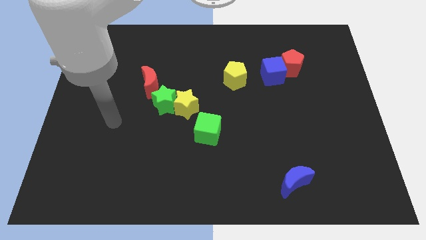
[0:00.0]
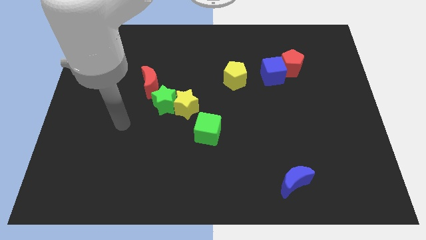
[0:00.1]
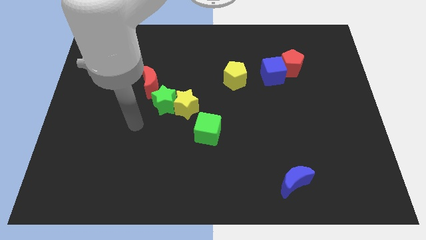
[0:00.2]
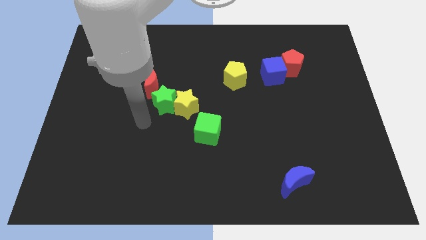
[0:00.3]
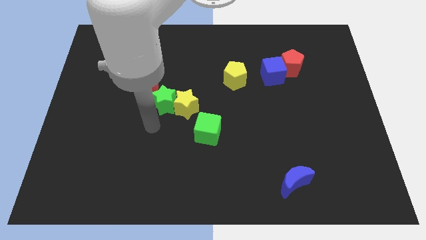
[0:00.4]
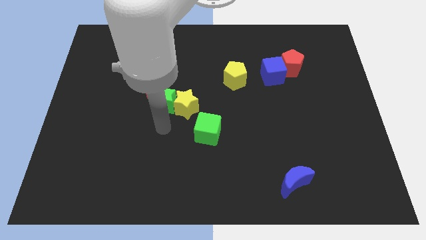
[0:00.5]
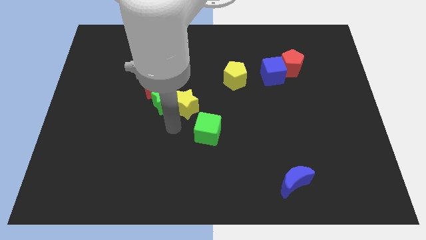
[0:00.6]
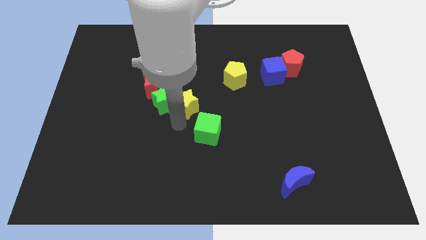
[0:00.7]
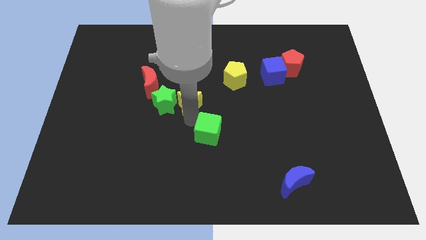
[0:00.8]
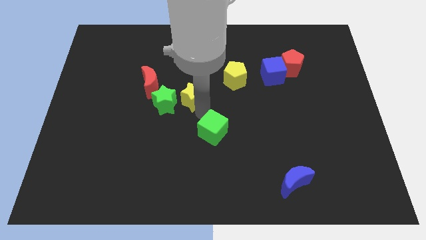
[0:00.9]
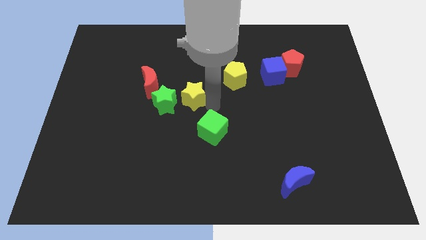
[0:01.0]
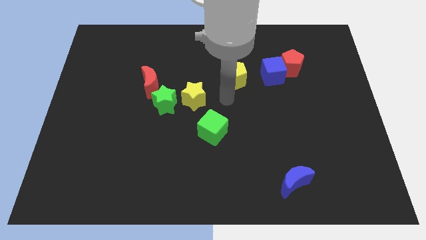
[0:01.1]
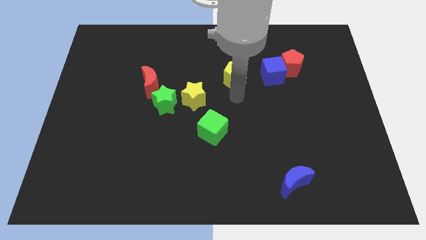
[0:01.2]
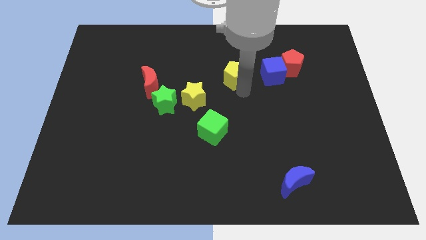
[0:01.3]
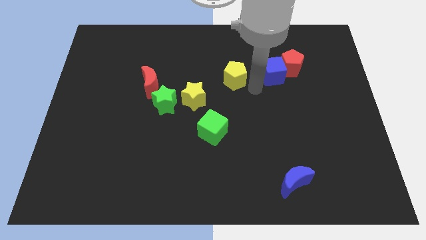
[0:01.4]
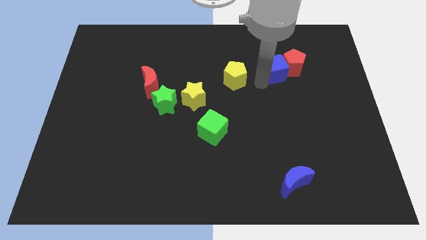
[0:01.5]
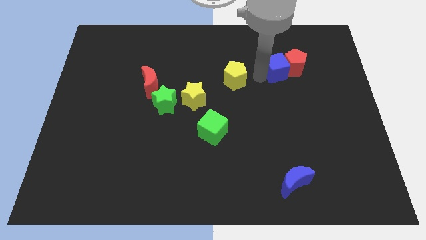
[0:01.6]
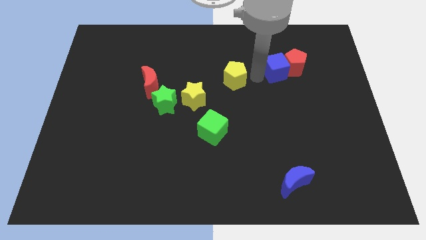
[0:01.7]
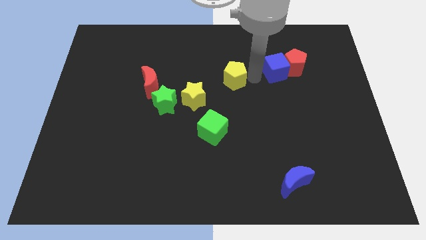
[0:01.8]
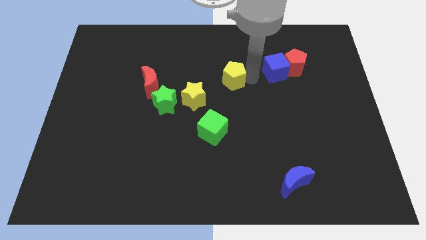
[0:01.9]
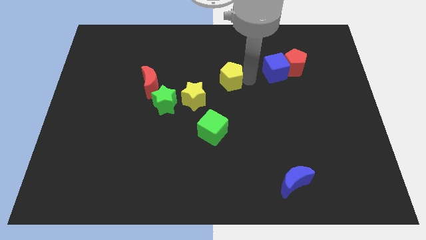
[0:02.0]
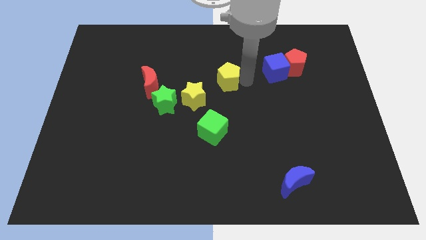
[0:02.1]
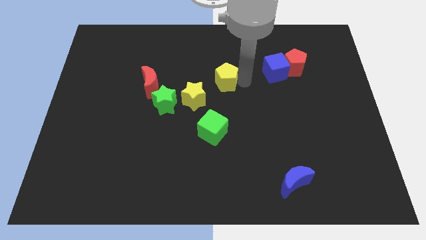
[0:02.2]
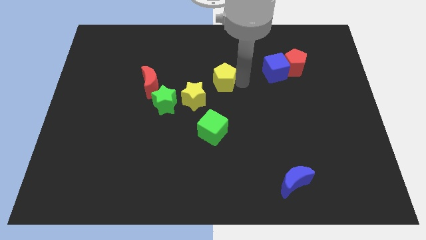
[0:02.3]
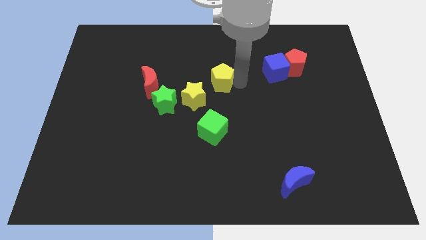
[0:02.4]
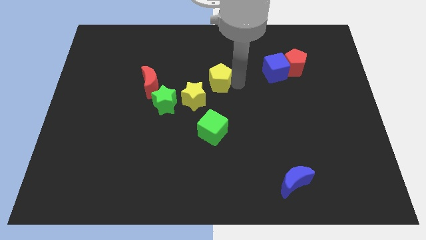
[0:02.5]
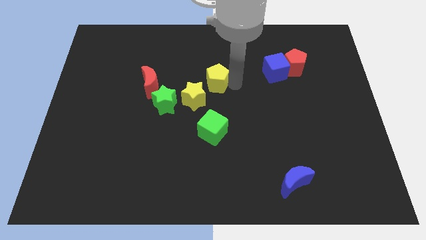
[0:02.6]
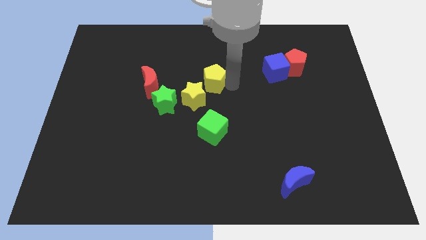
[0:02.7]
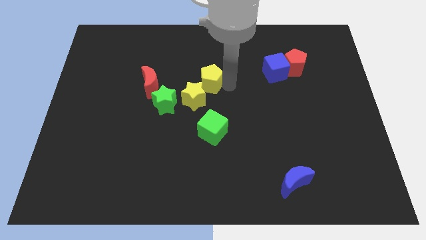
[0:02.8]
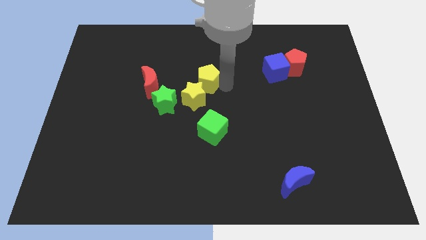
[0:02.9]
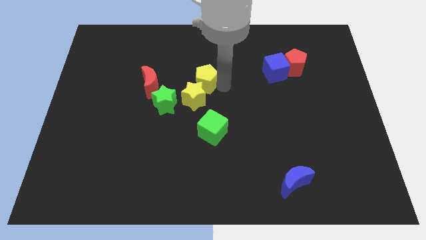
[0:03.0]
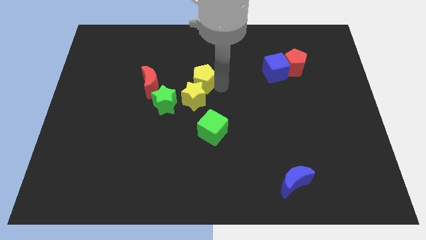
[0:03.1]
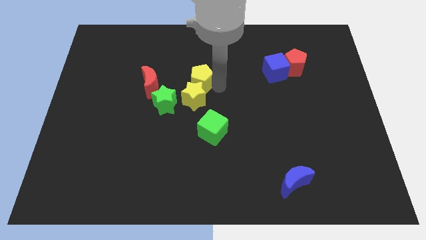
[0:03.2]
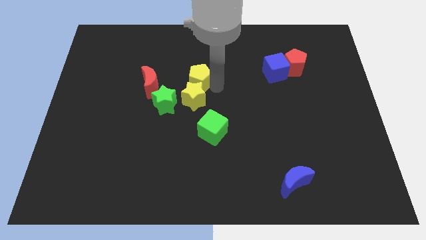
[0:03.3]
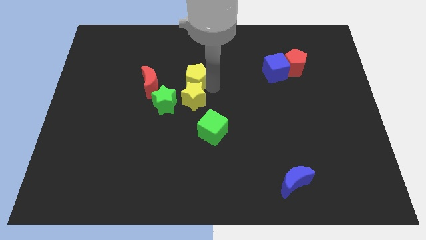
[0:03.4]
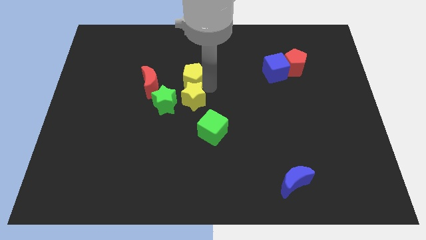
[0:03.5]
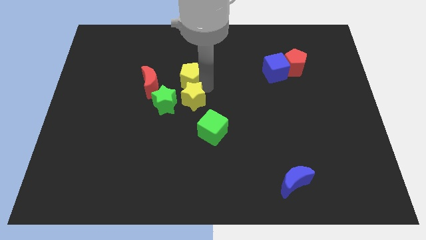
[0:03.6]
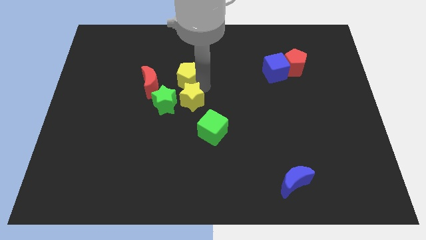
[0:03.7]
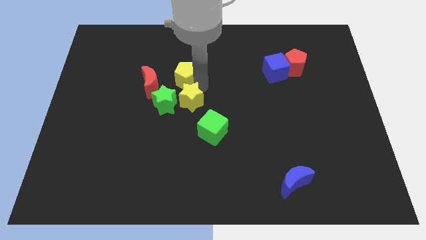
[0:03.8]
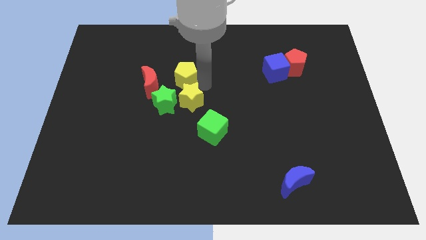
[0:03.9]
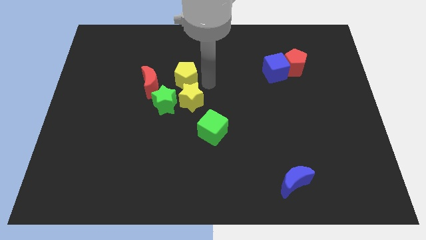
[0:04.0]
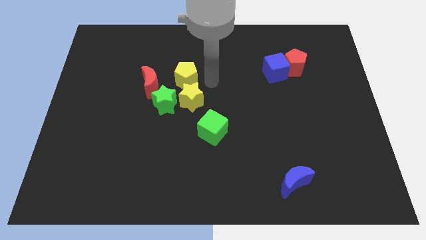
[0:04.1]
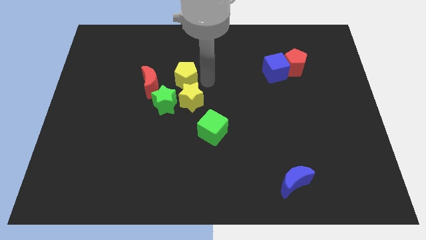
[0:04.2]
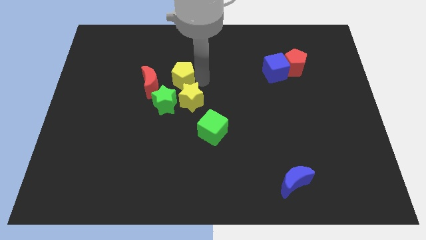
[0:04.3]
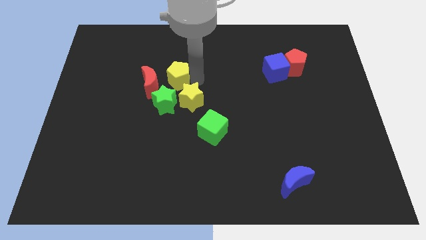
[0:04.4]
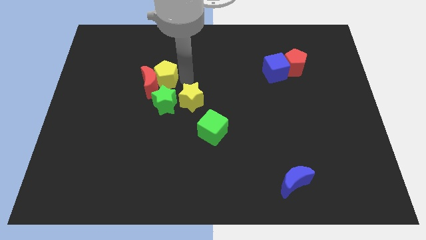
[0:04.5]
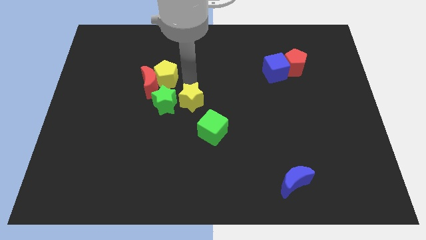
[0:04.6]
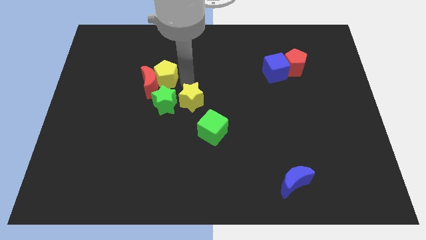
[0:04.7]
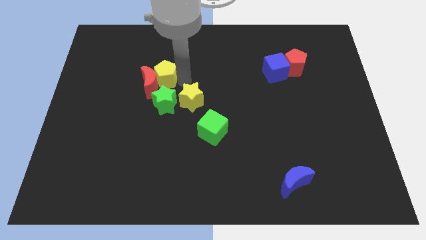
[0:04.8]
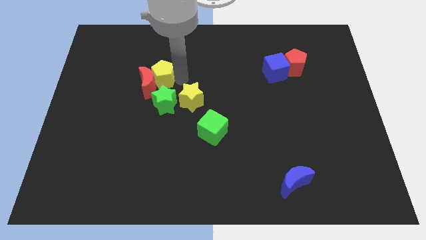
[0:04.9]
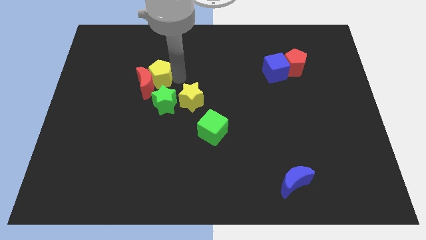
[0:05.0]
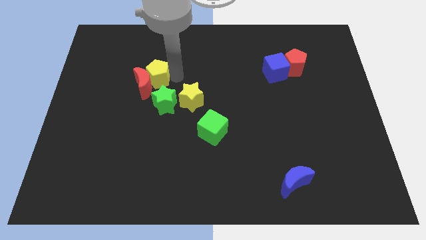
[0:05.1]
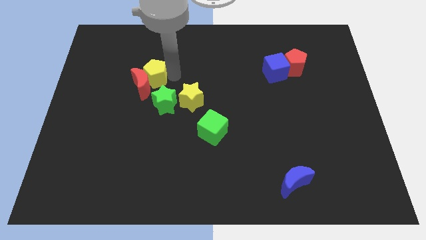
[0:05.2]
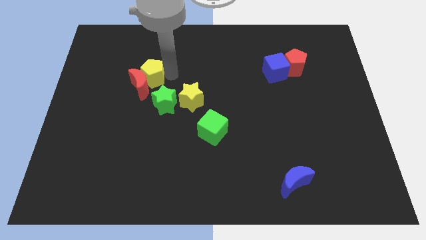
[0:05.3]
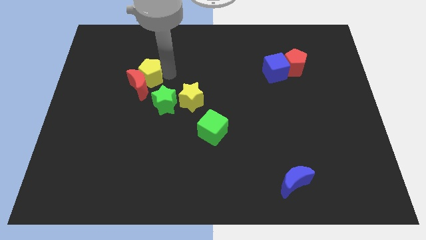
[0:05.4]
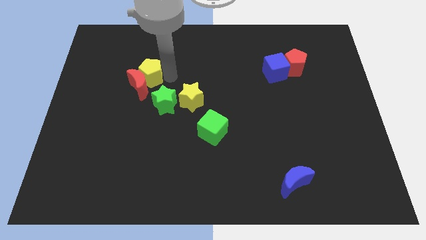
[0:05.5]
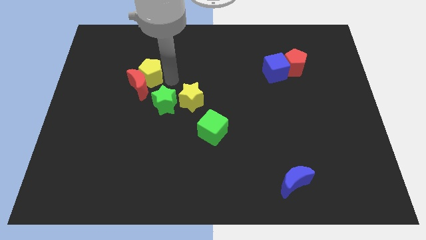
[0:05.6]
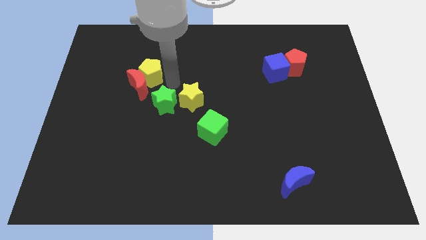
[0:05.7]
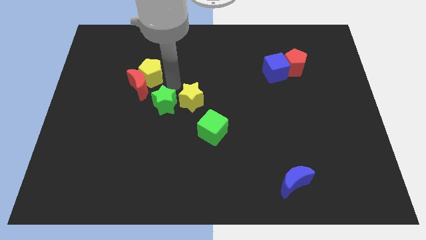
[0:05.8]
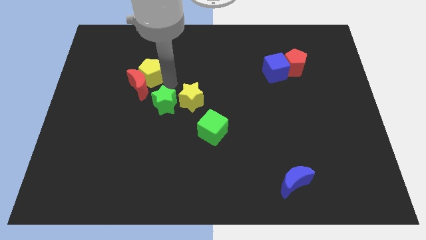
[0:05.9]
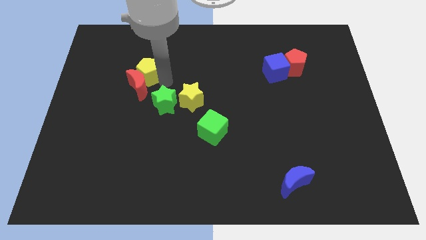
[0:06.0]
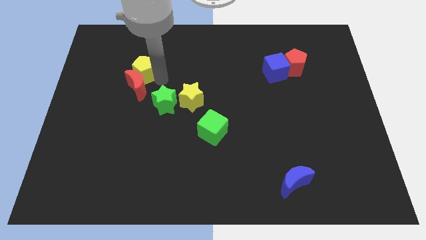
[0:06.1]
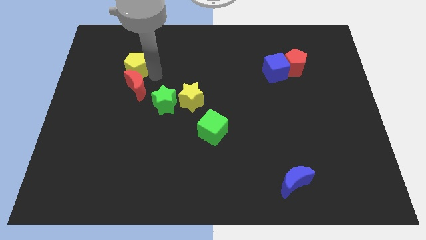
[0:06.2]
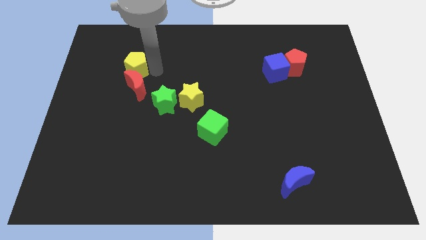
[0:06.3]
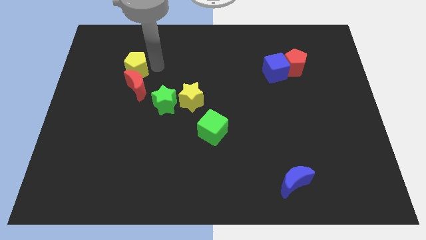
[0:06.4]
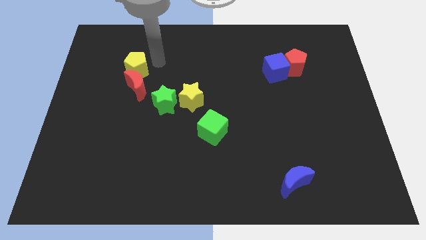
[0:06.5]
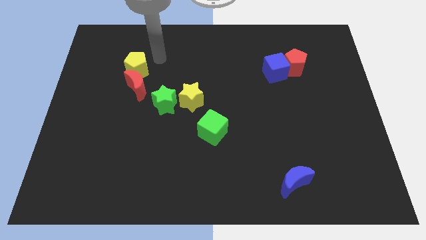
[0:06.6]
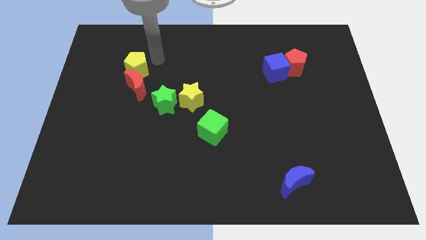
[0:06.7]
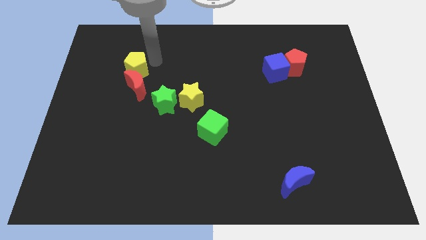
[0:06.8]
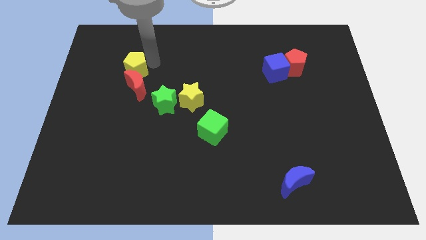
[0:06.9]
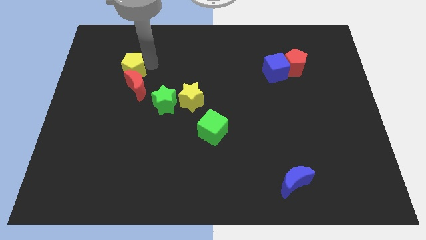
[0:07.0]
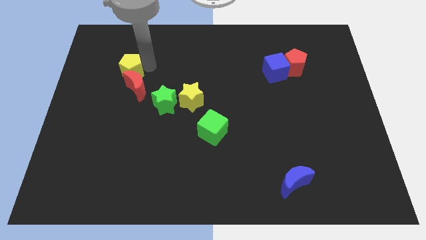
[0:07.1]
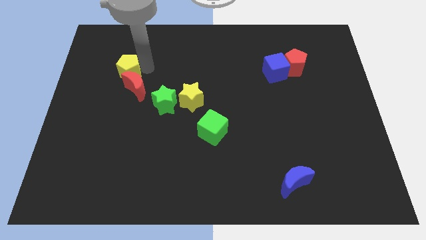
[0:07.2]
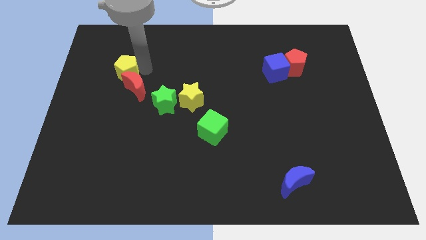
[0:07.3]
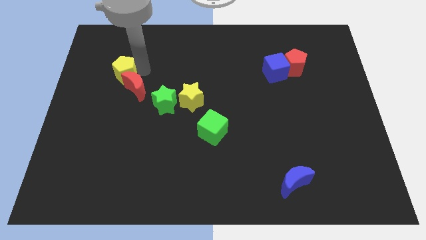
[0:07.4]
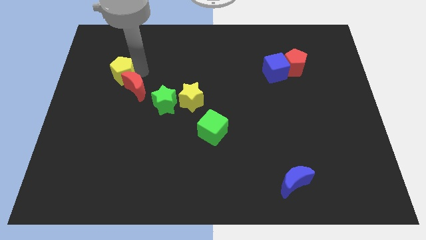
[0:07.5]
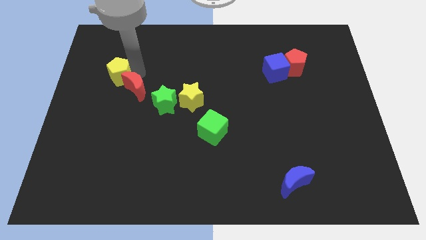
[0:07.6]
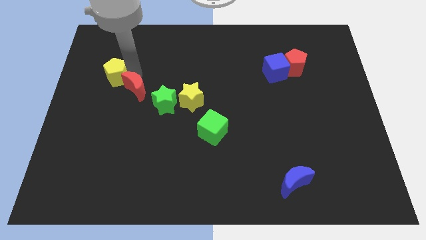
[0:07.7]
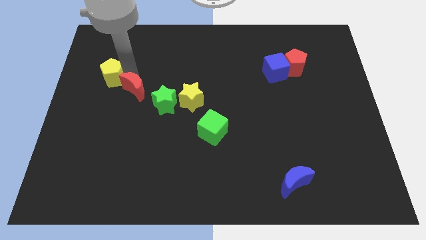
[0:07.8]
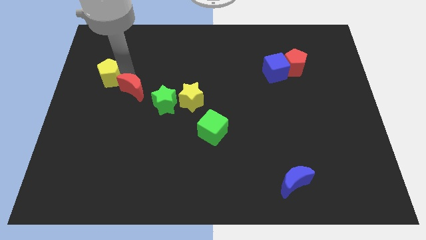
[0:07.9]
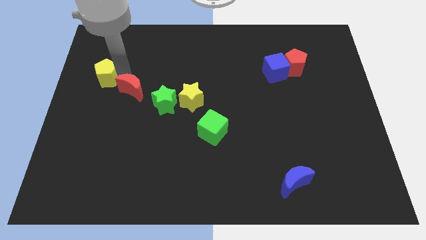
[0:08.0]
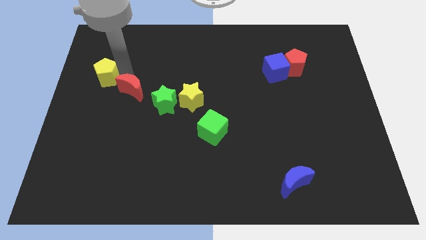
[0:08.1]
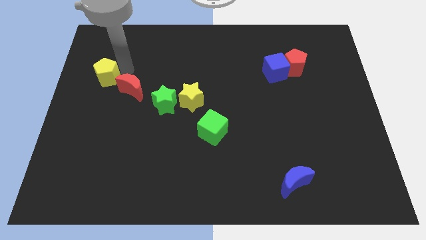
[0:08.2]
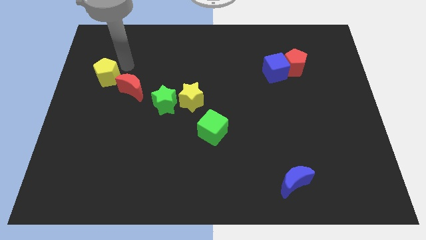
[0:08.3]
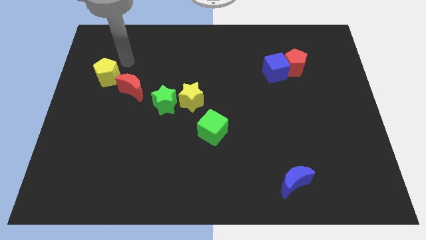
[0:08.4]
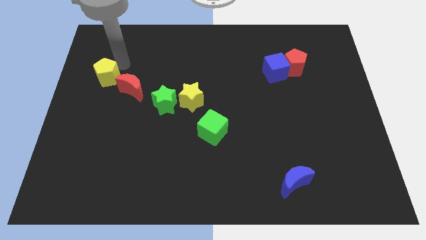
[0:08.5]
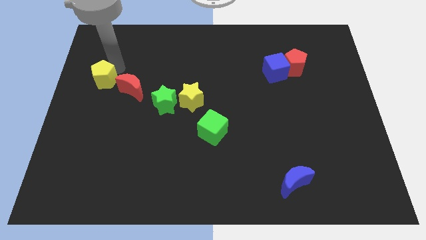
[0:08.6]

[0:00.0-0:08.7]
push the yellow pentagon to the left side
